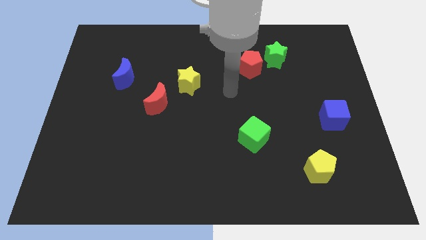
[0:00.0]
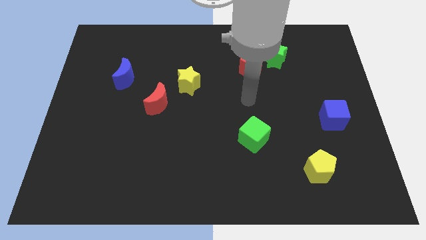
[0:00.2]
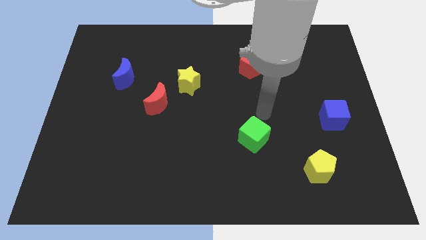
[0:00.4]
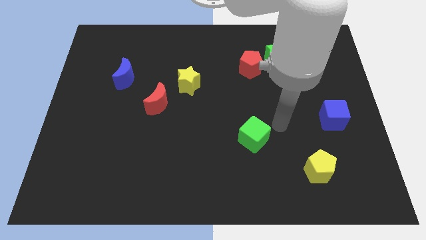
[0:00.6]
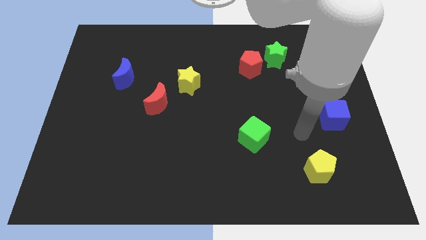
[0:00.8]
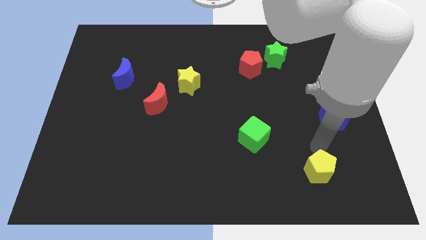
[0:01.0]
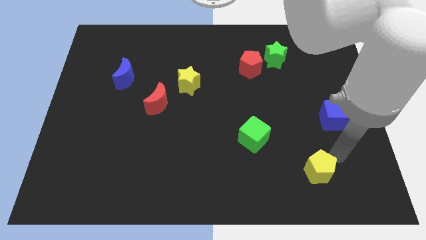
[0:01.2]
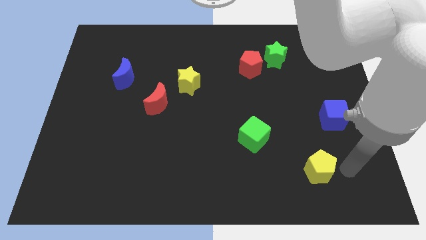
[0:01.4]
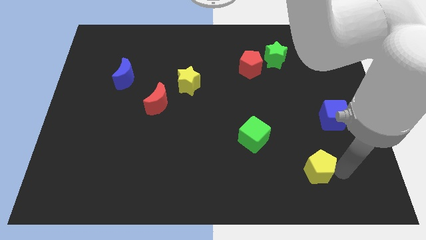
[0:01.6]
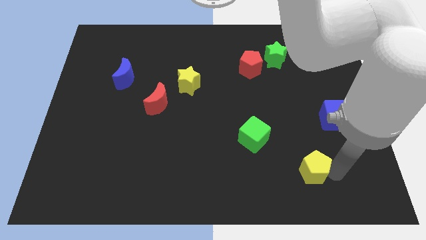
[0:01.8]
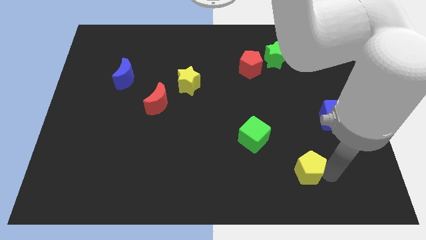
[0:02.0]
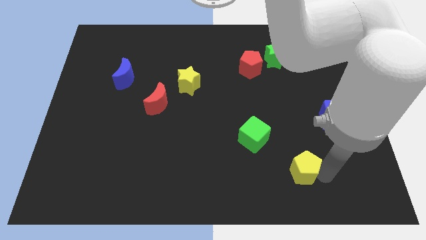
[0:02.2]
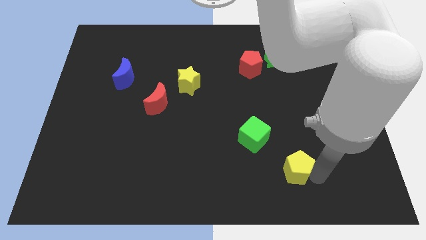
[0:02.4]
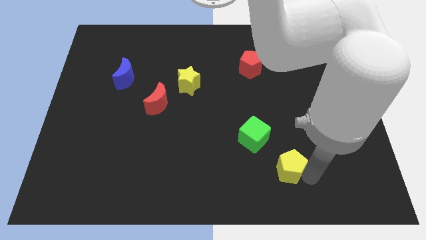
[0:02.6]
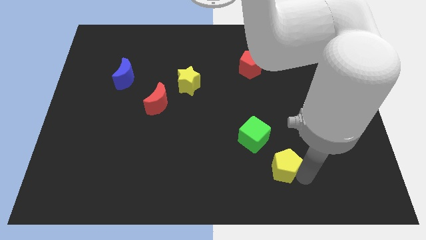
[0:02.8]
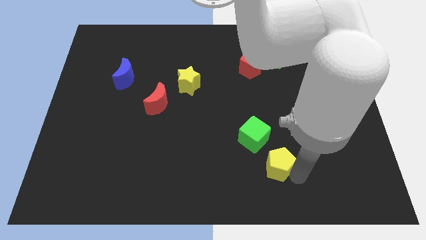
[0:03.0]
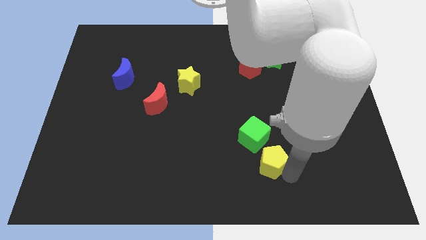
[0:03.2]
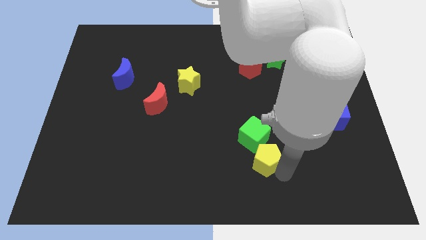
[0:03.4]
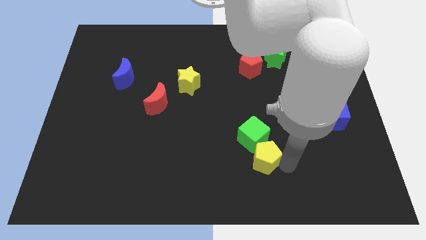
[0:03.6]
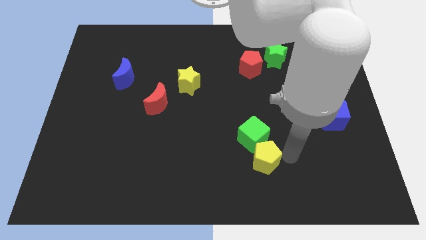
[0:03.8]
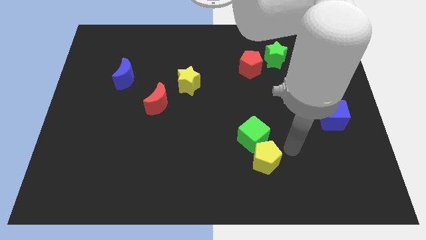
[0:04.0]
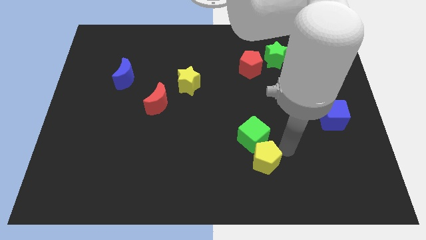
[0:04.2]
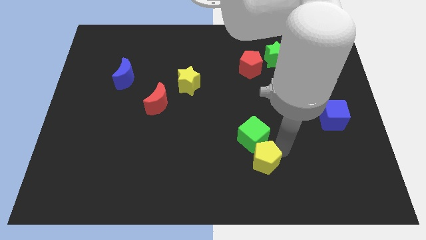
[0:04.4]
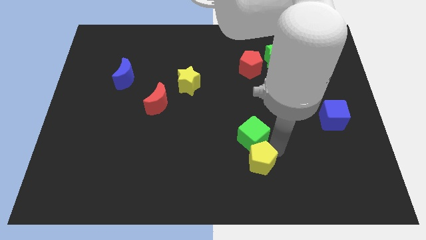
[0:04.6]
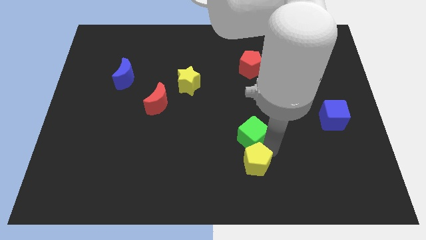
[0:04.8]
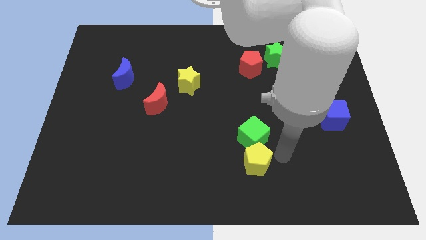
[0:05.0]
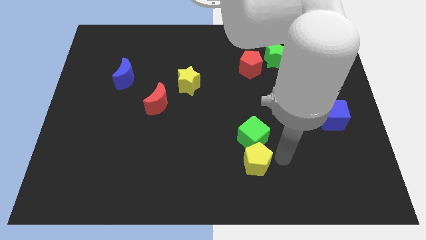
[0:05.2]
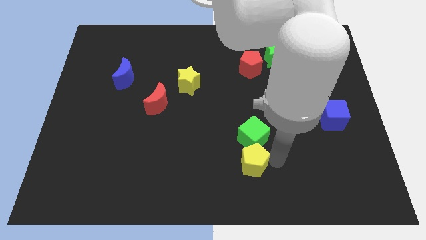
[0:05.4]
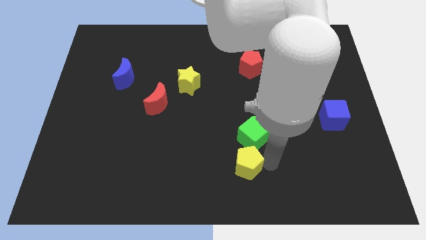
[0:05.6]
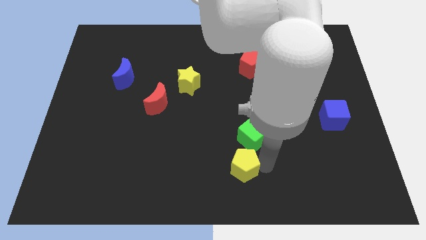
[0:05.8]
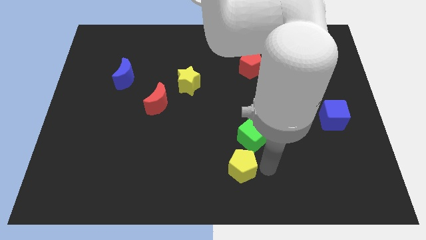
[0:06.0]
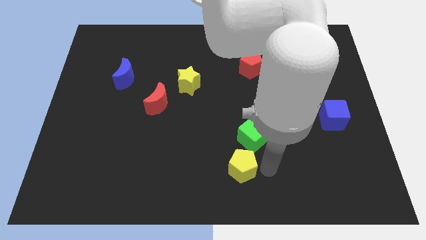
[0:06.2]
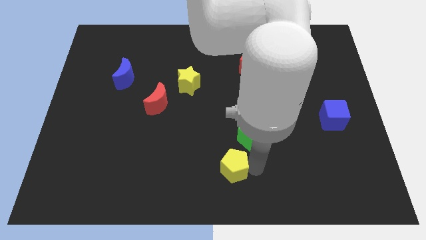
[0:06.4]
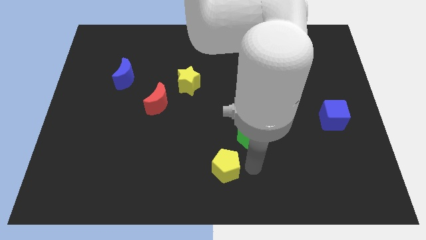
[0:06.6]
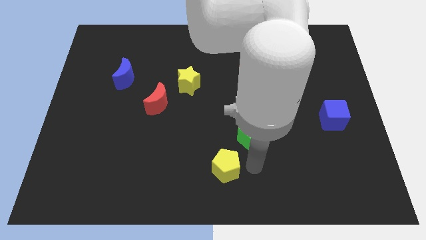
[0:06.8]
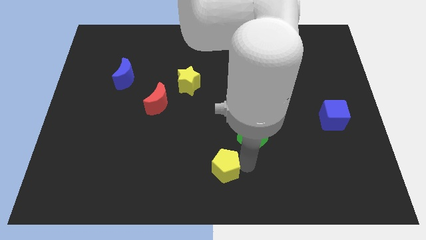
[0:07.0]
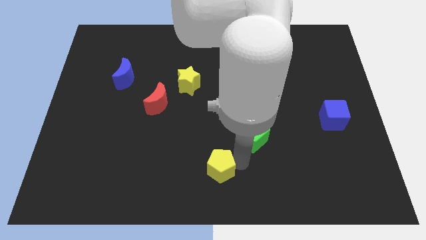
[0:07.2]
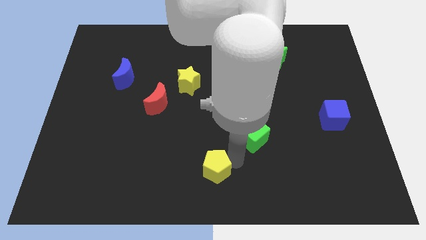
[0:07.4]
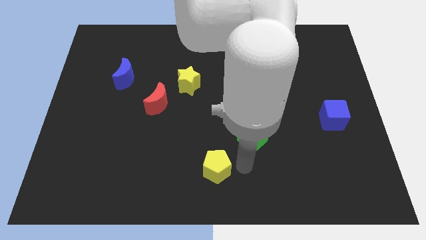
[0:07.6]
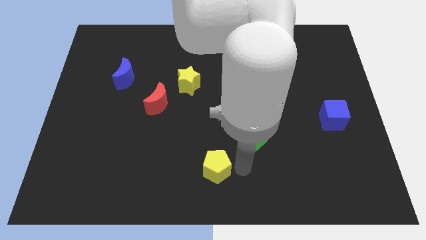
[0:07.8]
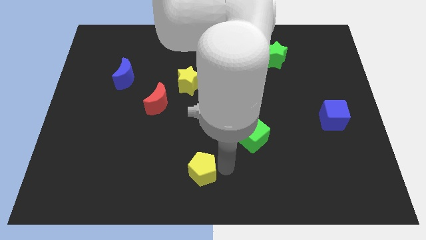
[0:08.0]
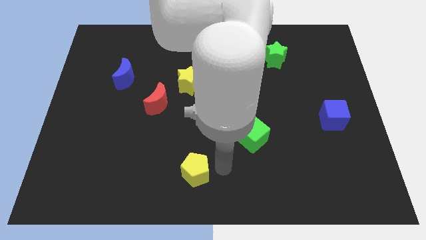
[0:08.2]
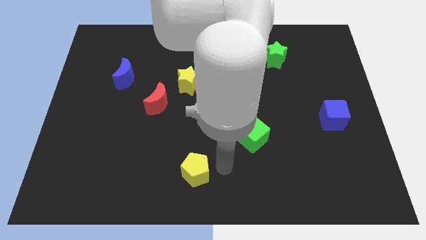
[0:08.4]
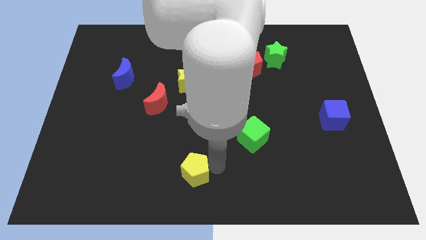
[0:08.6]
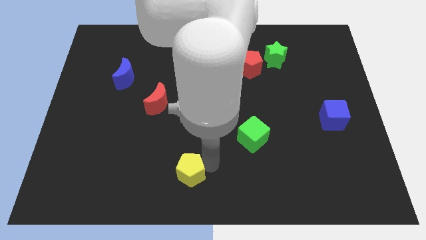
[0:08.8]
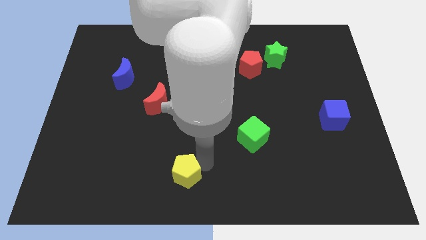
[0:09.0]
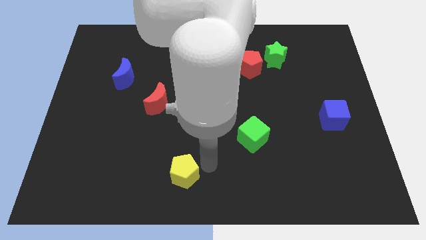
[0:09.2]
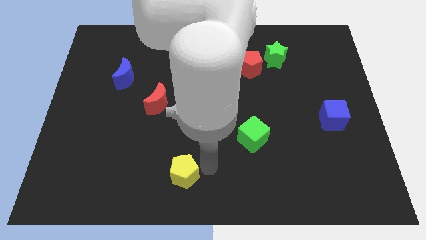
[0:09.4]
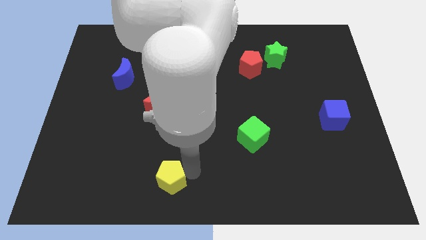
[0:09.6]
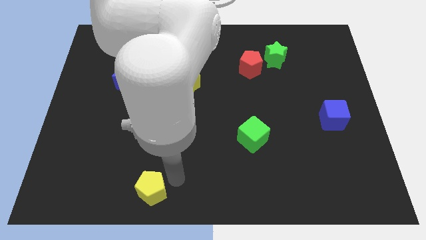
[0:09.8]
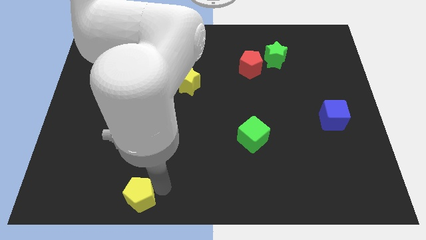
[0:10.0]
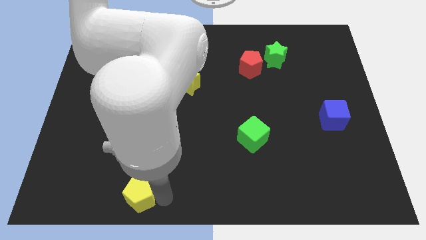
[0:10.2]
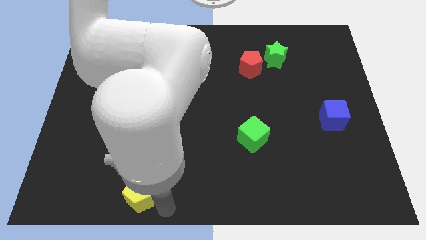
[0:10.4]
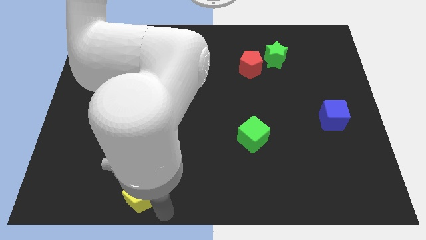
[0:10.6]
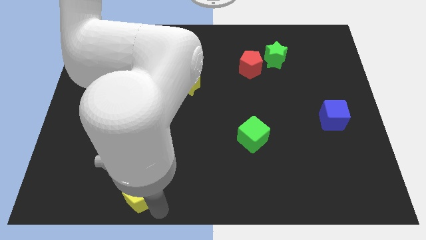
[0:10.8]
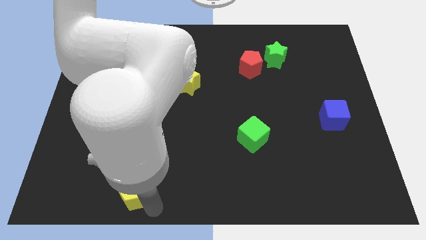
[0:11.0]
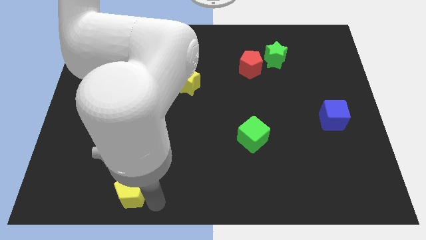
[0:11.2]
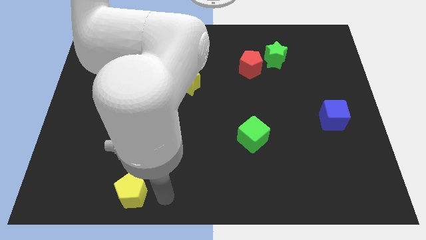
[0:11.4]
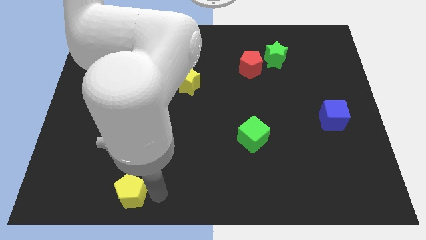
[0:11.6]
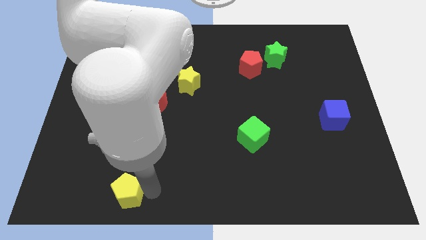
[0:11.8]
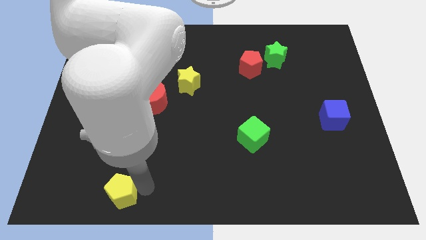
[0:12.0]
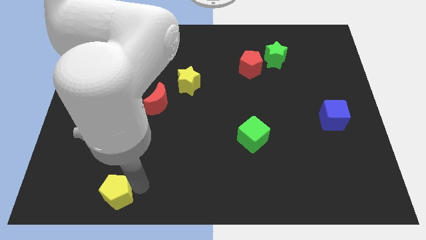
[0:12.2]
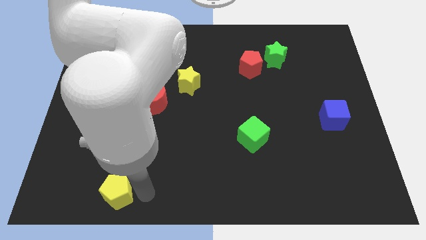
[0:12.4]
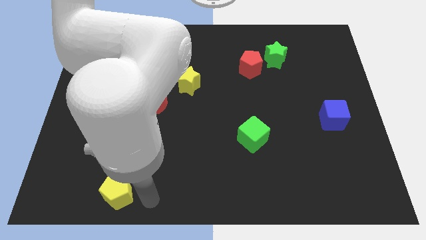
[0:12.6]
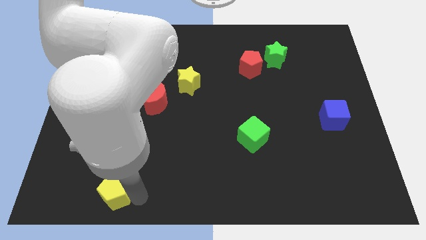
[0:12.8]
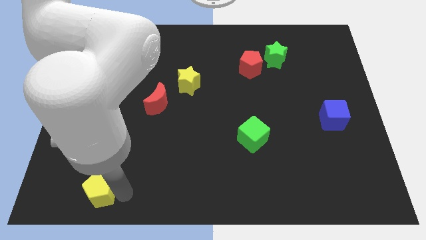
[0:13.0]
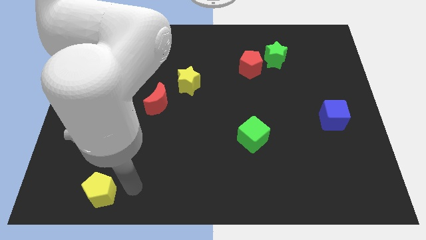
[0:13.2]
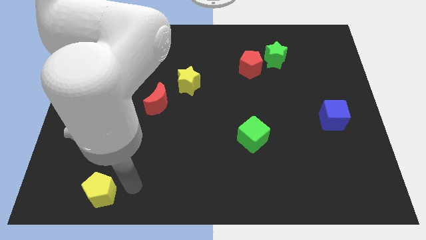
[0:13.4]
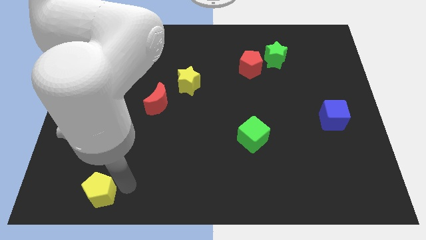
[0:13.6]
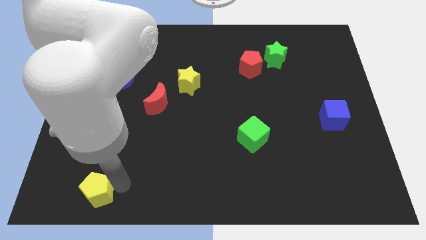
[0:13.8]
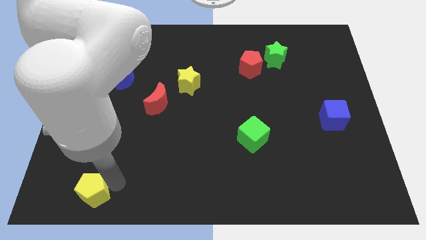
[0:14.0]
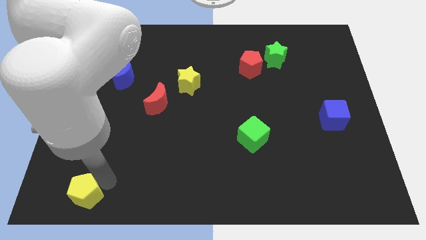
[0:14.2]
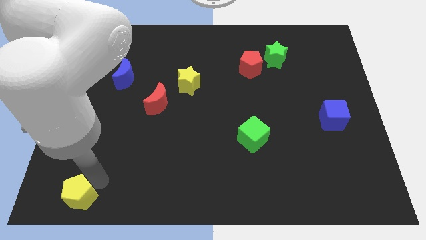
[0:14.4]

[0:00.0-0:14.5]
slide the yellow pentagon to the lower left corner
